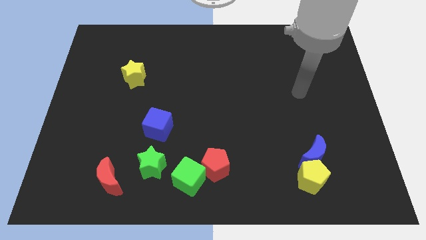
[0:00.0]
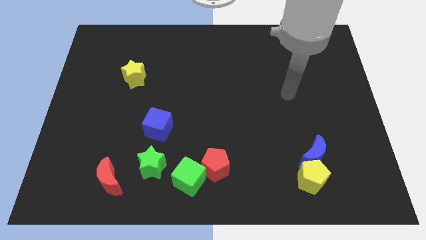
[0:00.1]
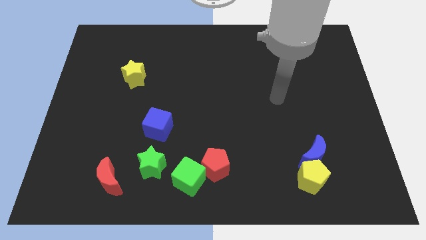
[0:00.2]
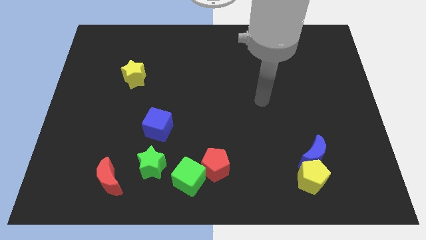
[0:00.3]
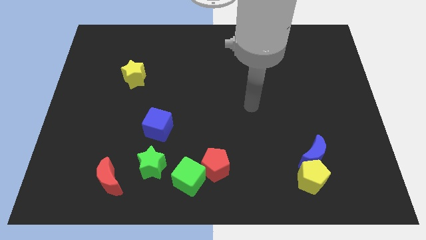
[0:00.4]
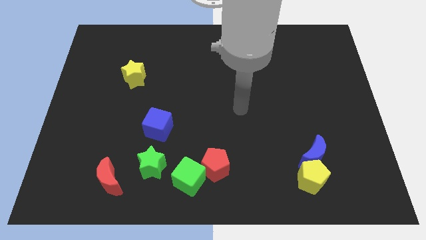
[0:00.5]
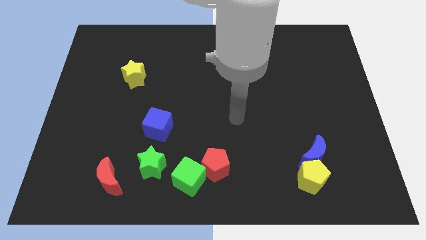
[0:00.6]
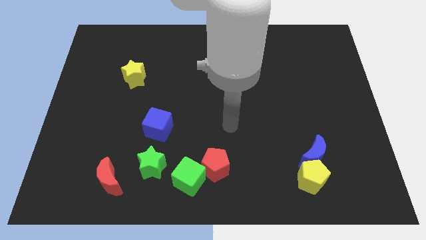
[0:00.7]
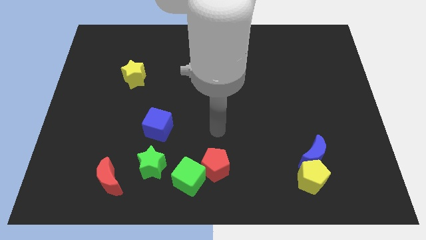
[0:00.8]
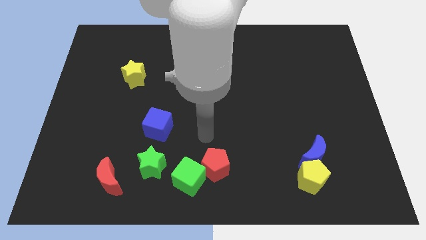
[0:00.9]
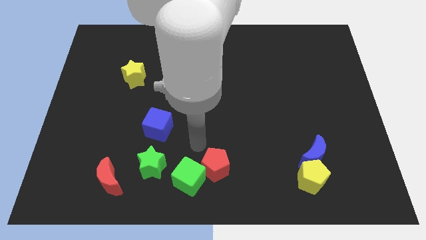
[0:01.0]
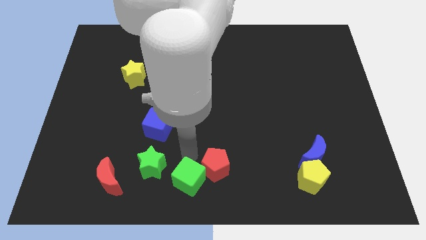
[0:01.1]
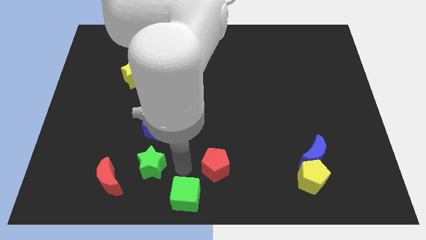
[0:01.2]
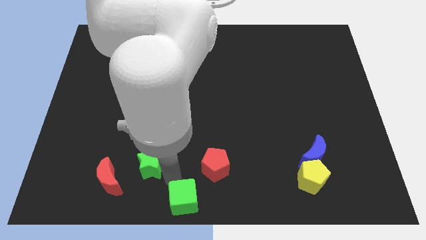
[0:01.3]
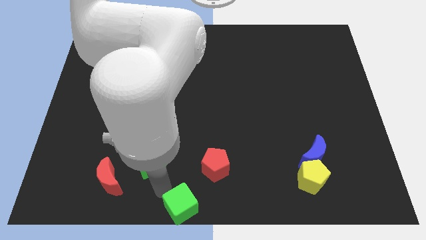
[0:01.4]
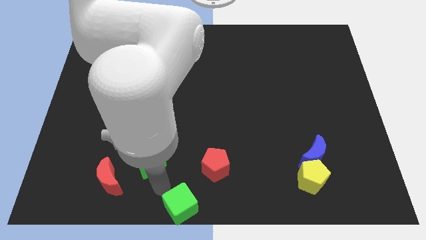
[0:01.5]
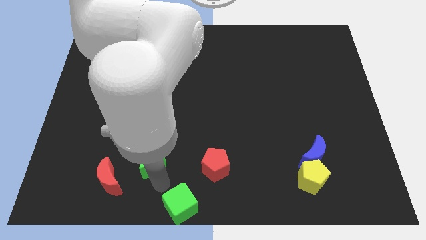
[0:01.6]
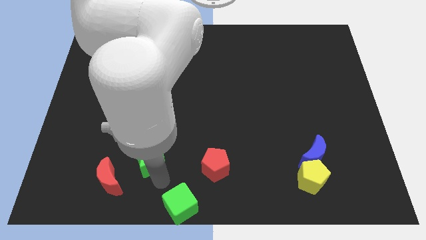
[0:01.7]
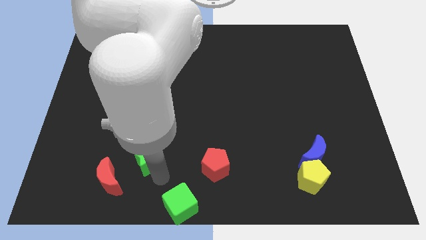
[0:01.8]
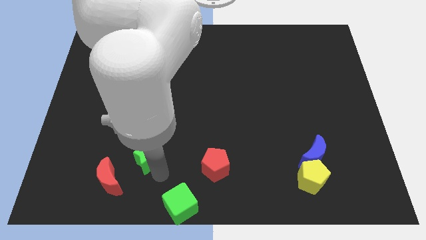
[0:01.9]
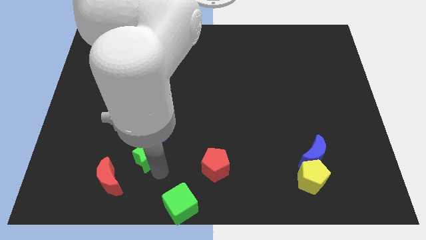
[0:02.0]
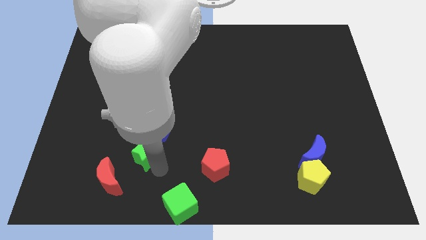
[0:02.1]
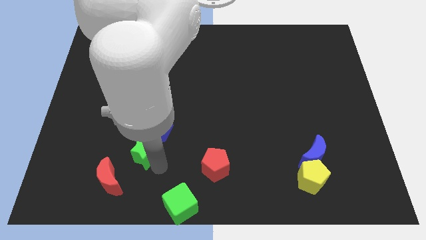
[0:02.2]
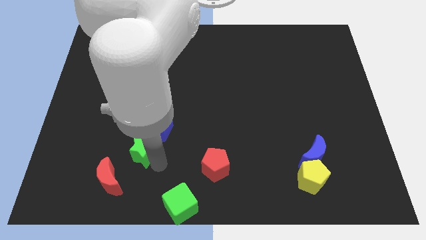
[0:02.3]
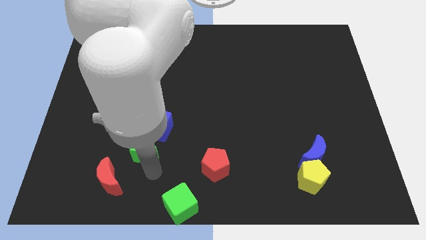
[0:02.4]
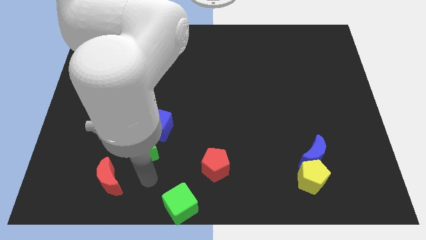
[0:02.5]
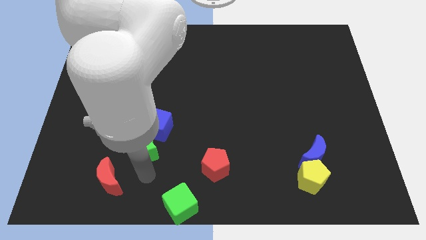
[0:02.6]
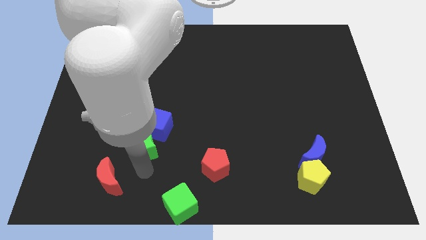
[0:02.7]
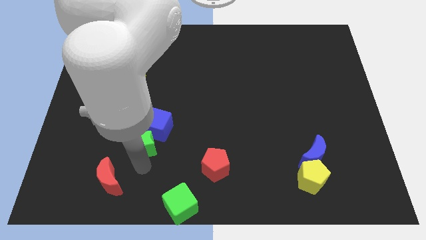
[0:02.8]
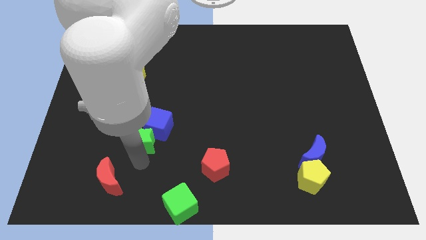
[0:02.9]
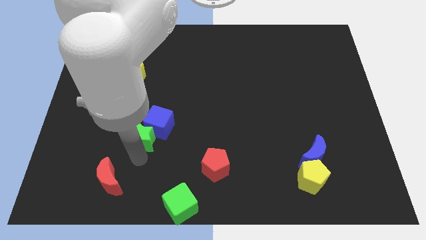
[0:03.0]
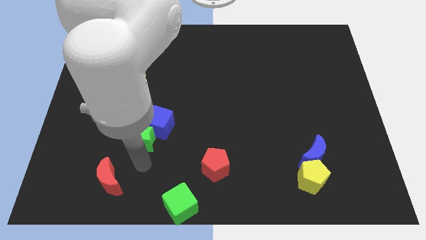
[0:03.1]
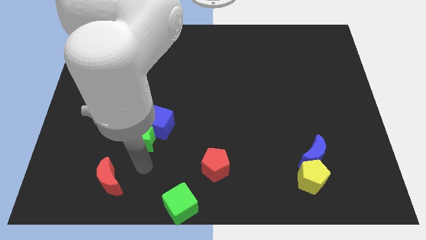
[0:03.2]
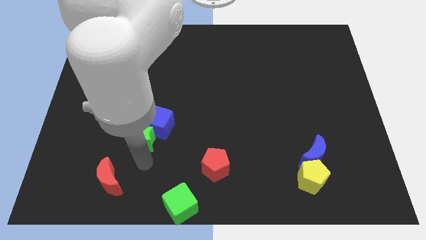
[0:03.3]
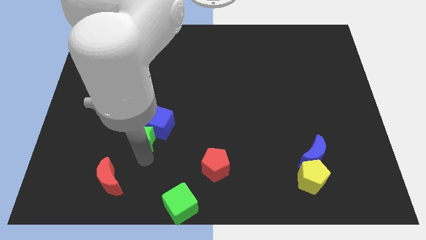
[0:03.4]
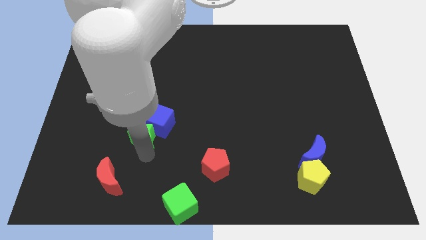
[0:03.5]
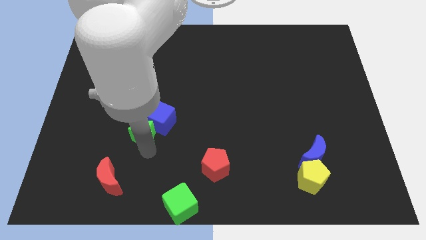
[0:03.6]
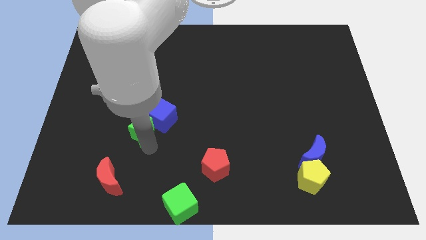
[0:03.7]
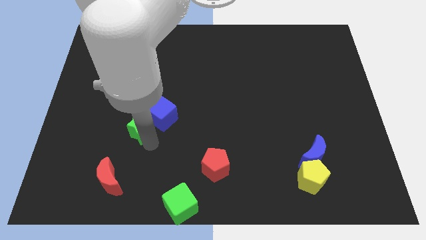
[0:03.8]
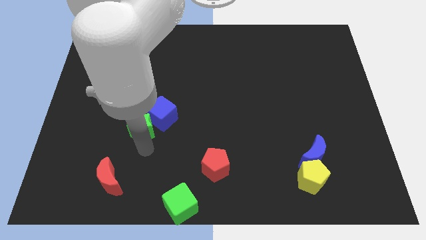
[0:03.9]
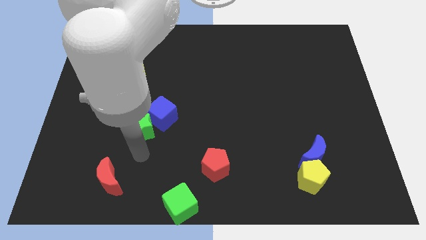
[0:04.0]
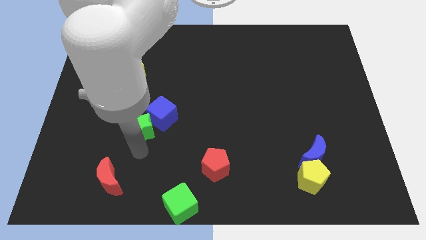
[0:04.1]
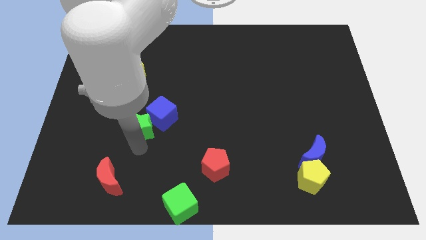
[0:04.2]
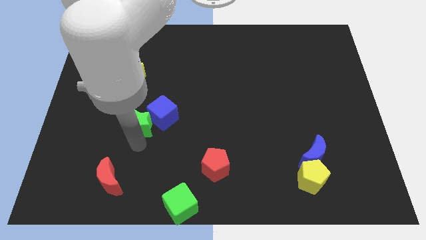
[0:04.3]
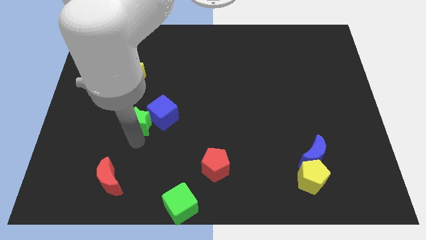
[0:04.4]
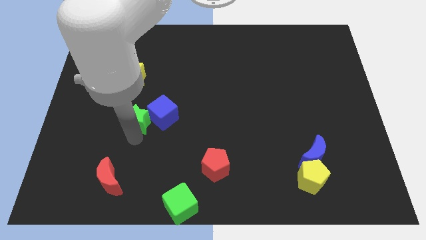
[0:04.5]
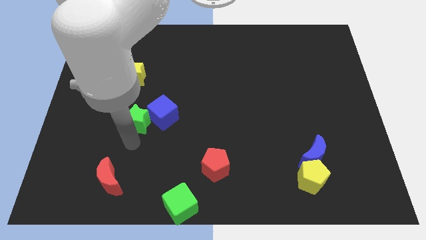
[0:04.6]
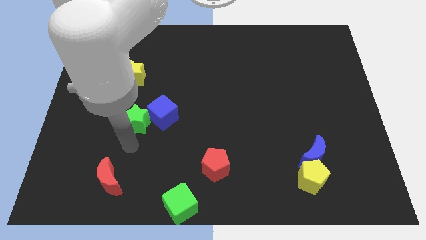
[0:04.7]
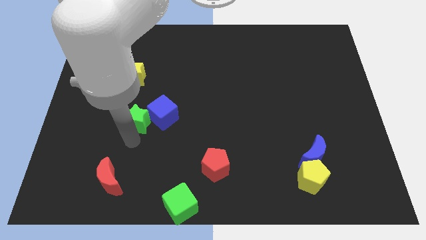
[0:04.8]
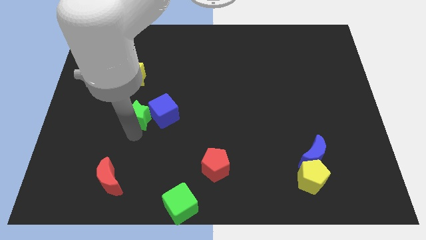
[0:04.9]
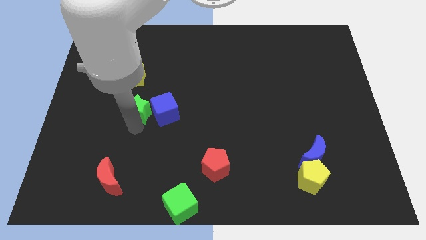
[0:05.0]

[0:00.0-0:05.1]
push the green star diagonally up and to the left of the blue cube

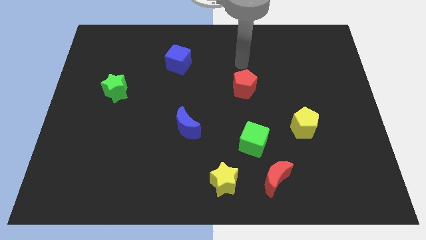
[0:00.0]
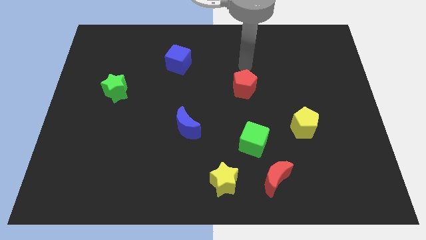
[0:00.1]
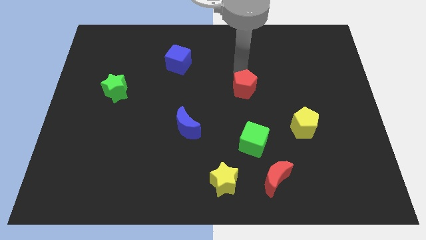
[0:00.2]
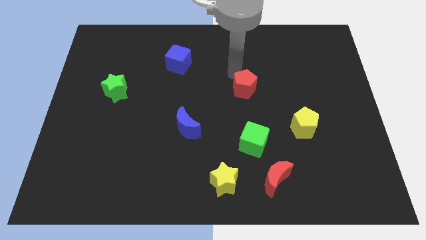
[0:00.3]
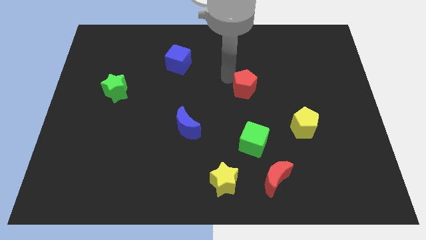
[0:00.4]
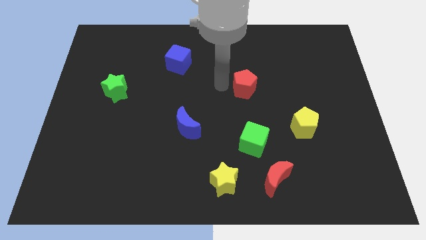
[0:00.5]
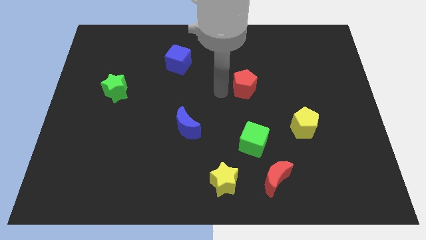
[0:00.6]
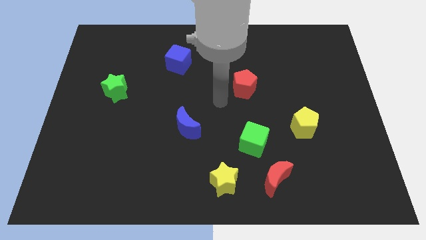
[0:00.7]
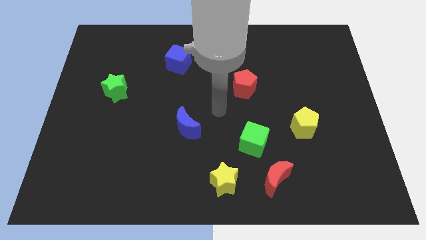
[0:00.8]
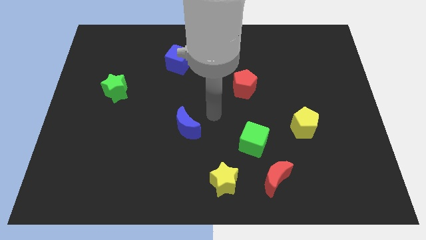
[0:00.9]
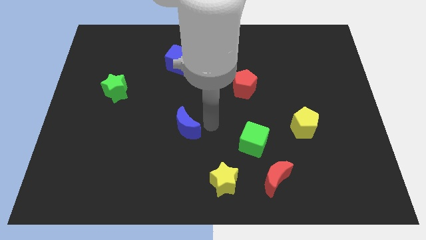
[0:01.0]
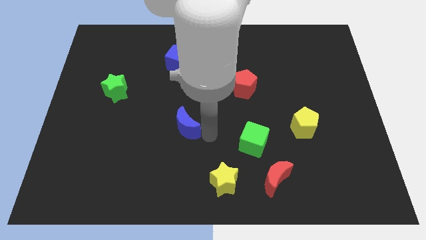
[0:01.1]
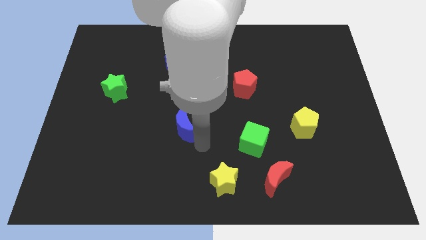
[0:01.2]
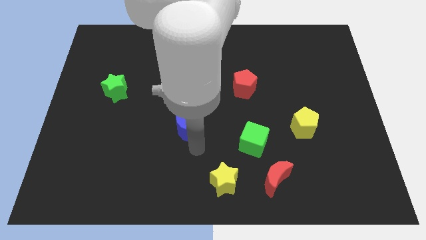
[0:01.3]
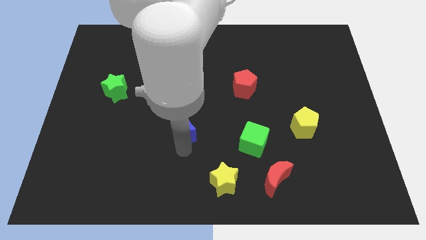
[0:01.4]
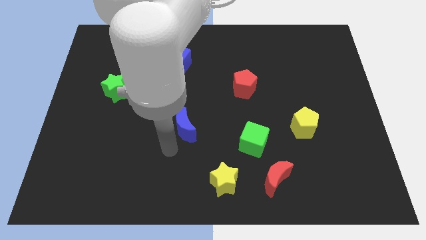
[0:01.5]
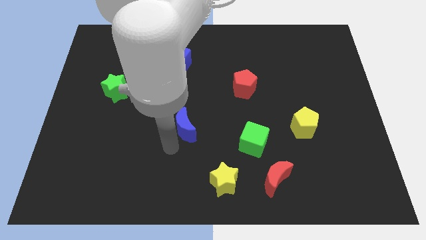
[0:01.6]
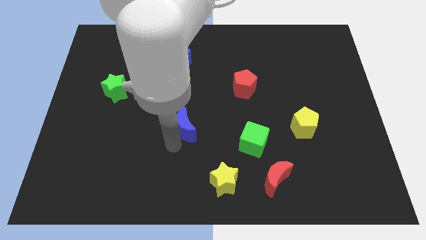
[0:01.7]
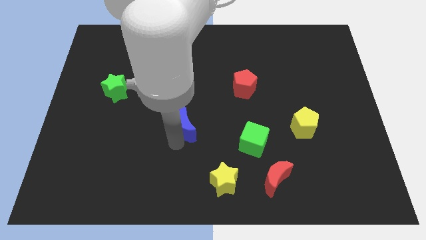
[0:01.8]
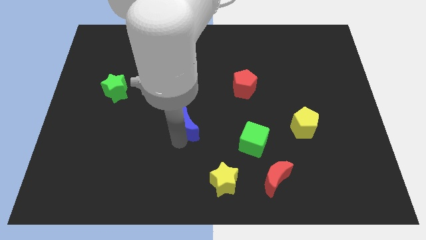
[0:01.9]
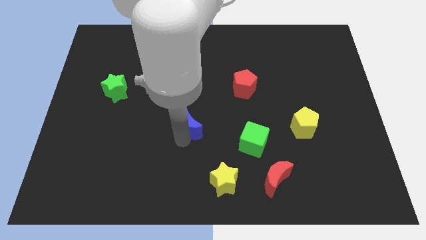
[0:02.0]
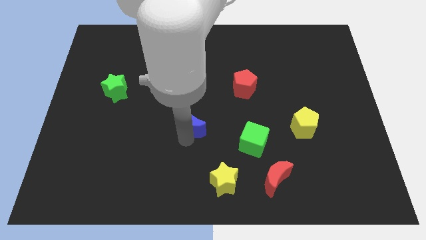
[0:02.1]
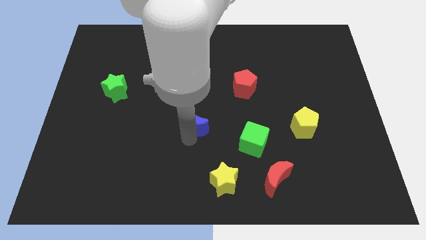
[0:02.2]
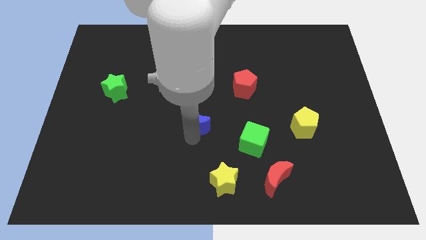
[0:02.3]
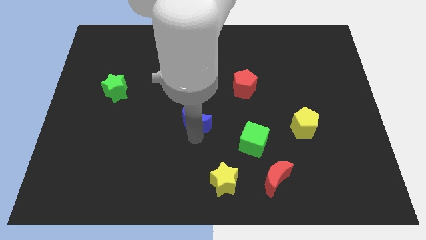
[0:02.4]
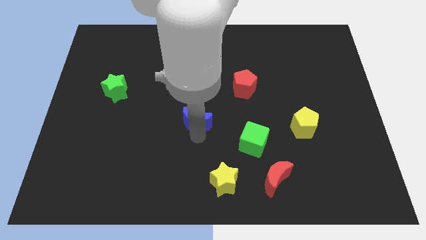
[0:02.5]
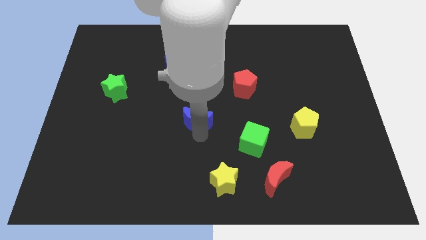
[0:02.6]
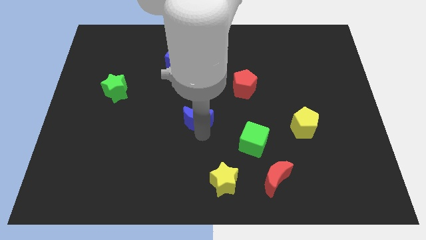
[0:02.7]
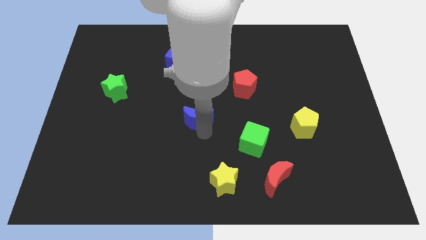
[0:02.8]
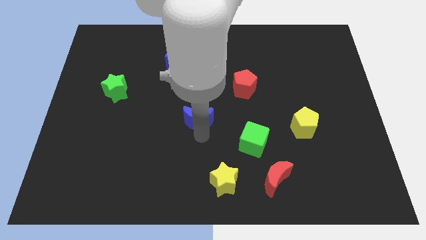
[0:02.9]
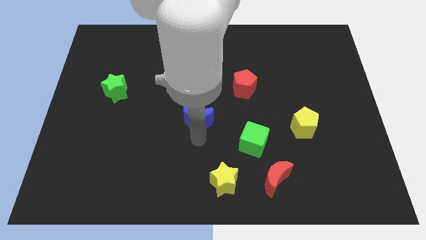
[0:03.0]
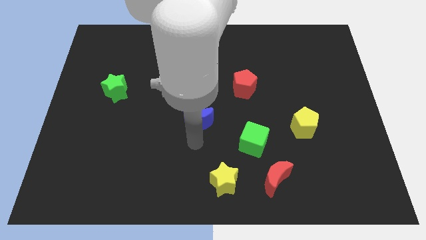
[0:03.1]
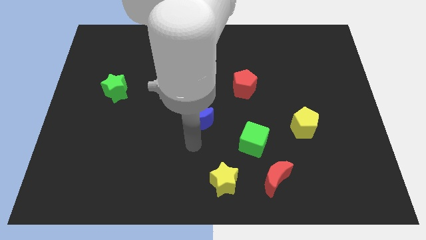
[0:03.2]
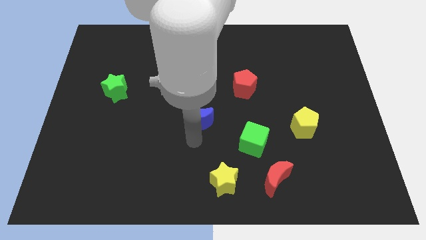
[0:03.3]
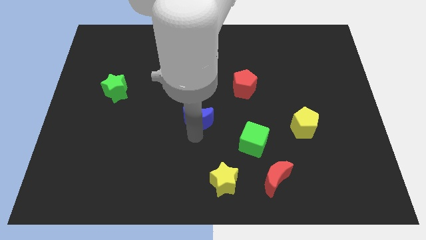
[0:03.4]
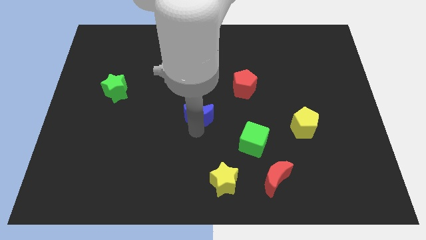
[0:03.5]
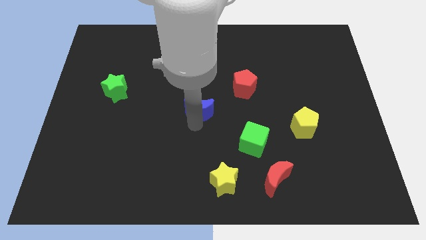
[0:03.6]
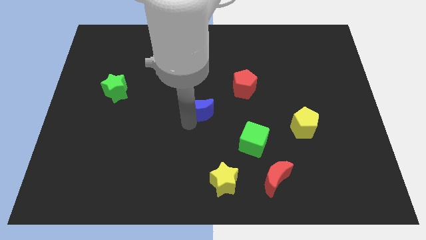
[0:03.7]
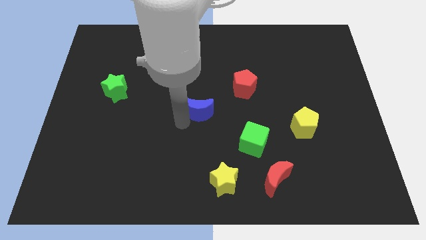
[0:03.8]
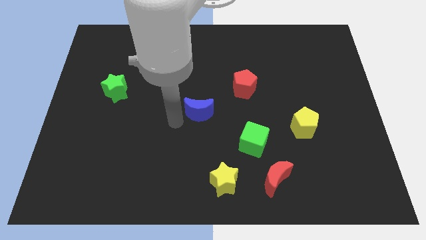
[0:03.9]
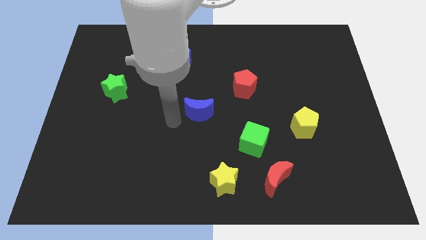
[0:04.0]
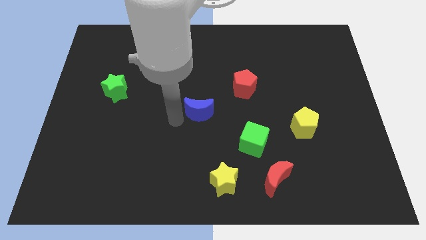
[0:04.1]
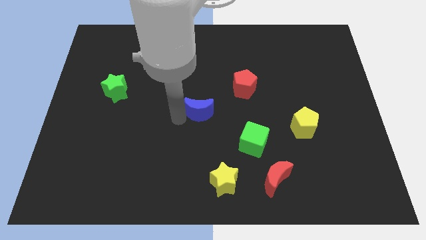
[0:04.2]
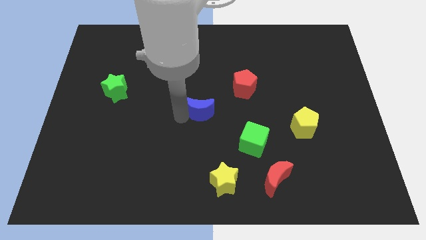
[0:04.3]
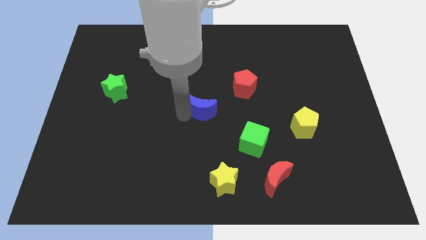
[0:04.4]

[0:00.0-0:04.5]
move the blue moon to the bottom left side of the red pentagon
